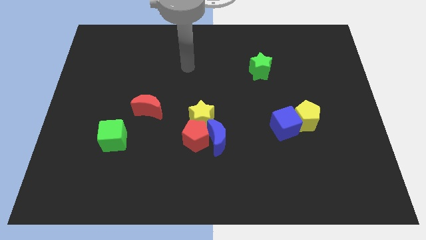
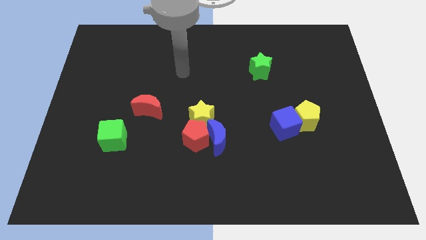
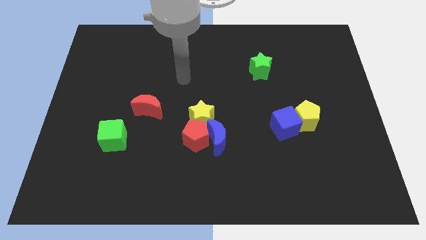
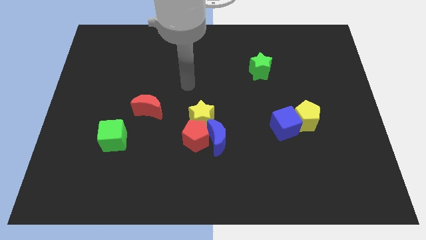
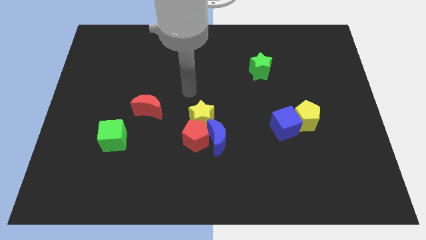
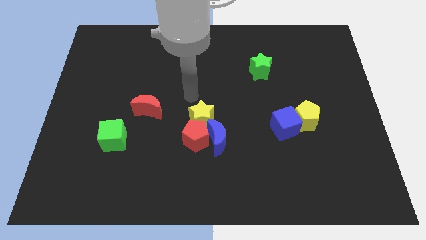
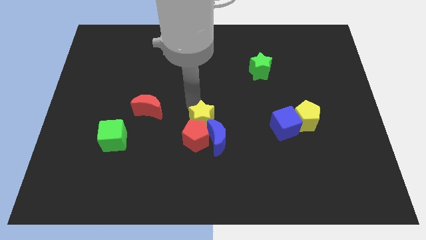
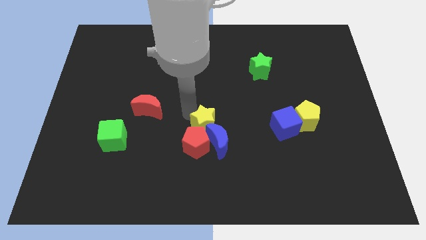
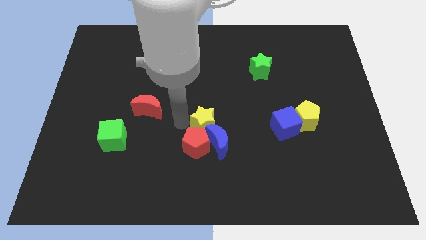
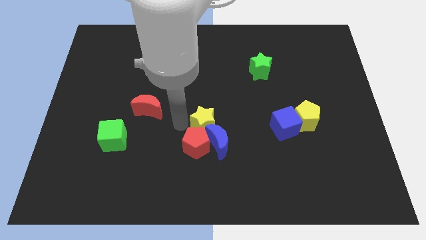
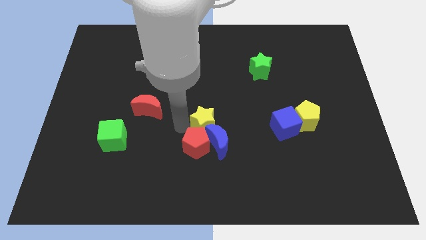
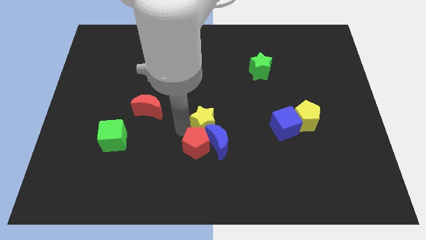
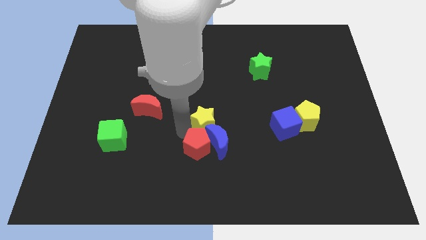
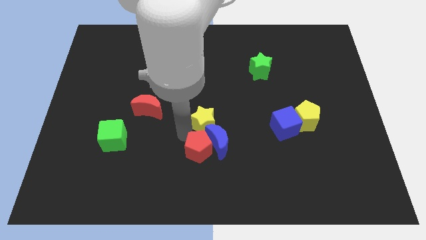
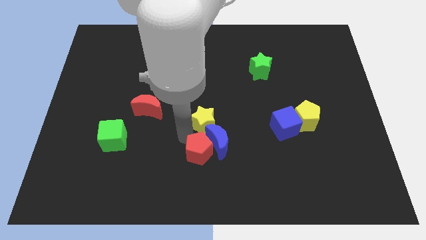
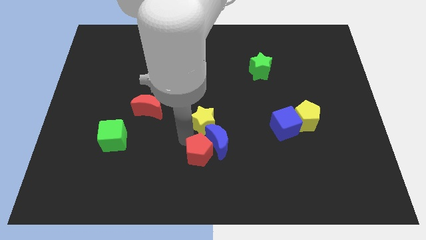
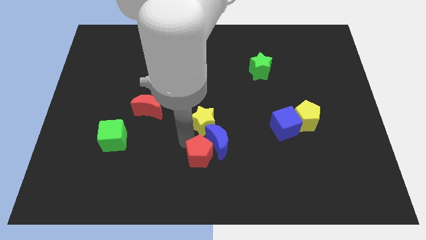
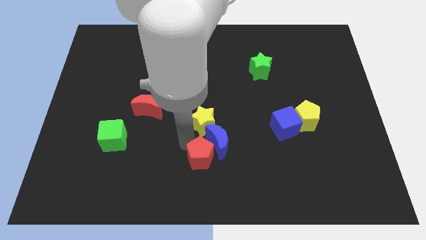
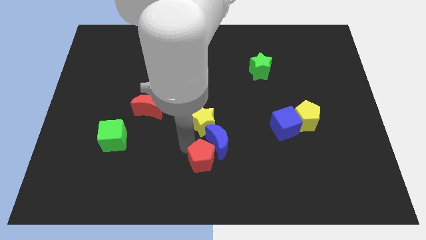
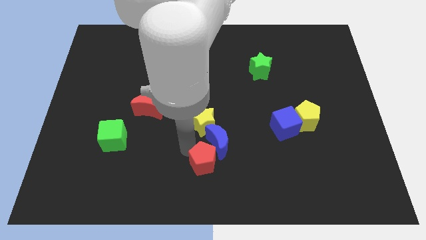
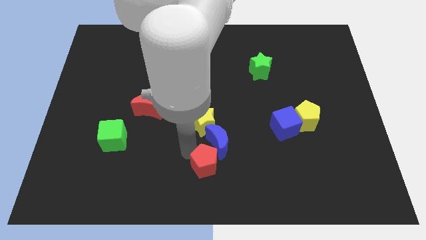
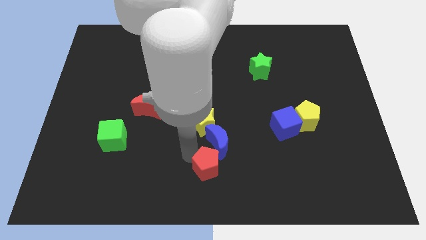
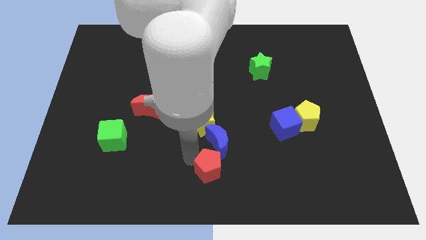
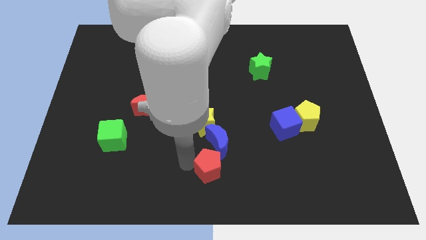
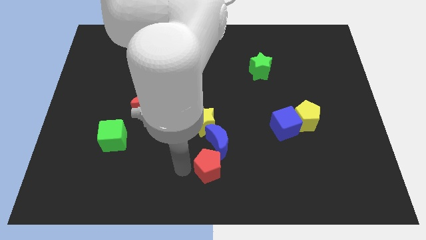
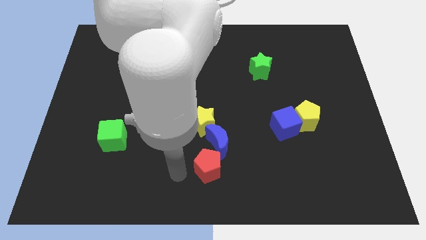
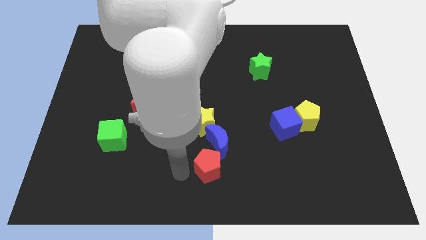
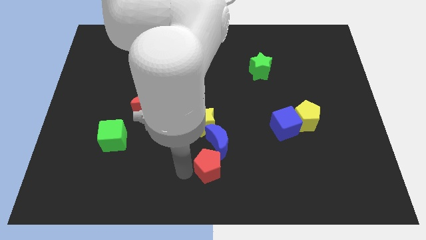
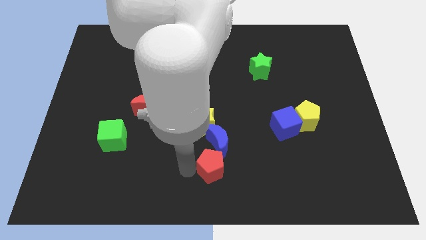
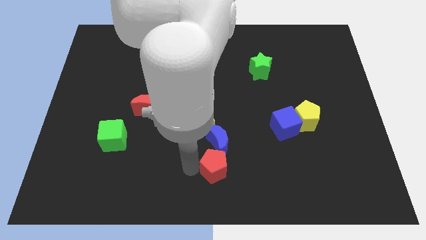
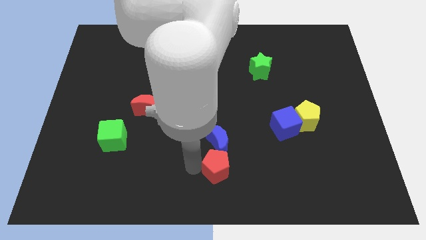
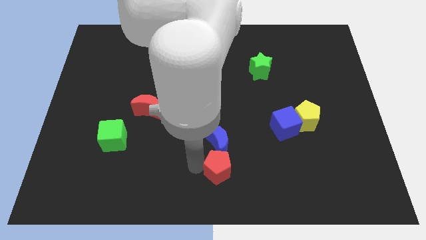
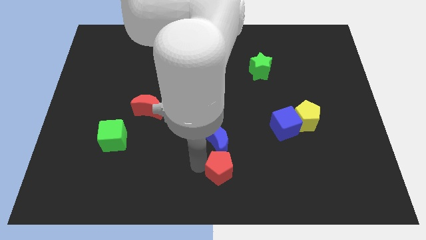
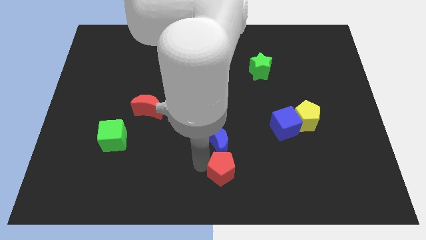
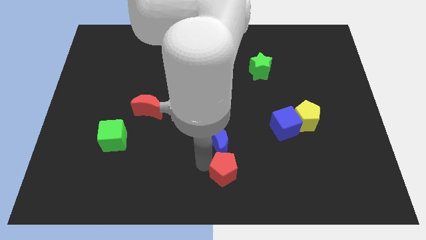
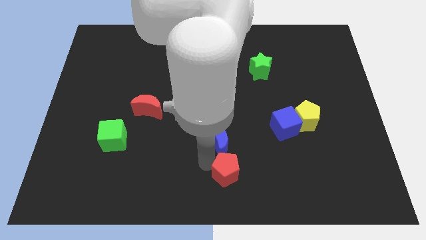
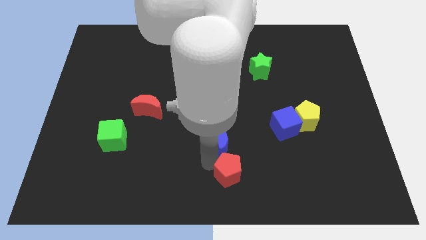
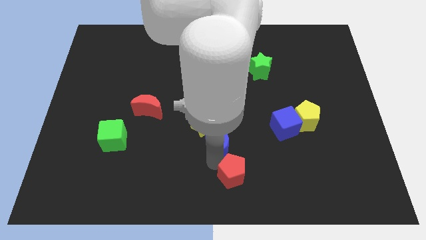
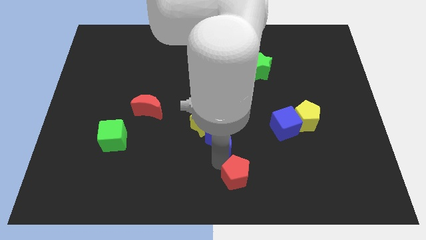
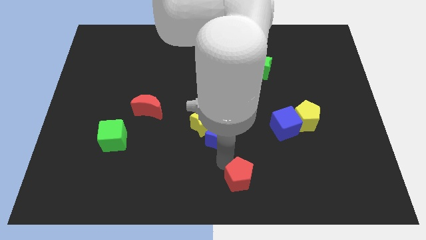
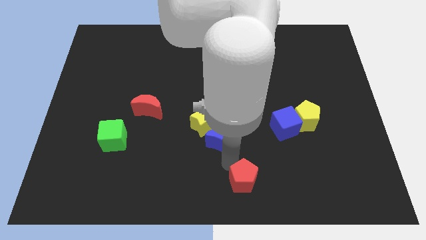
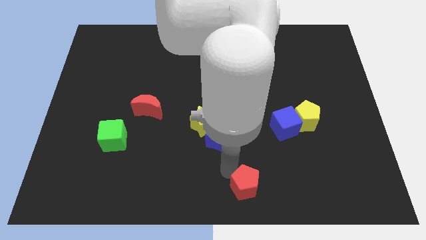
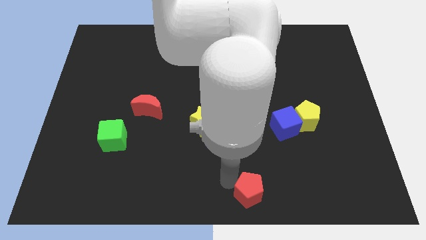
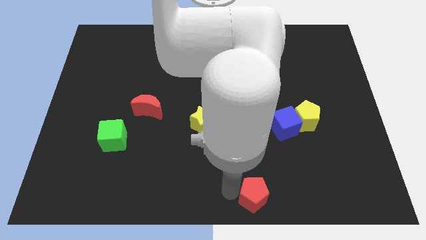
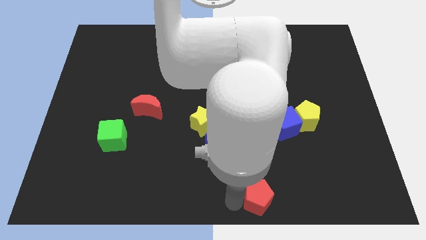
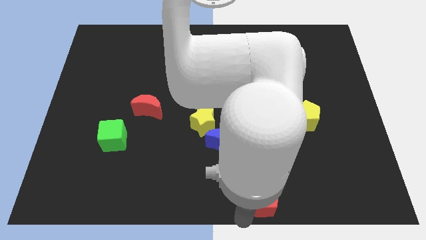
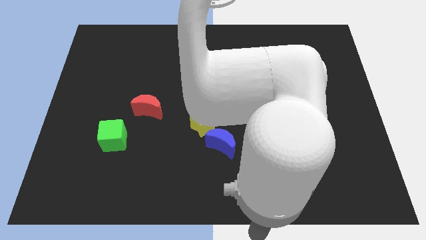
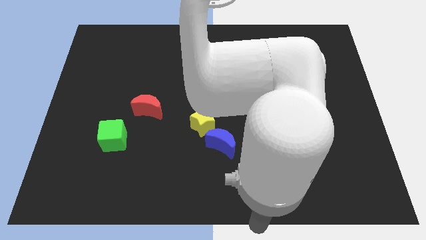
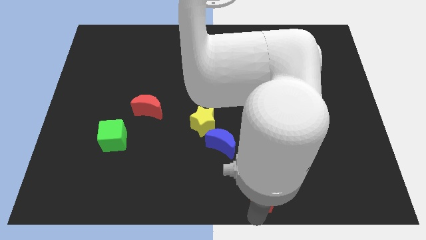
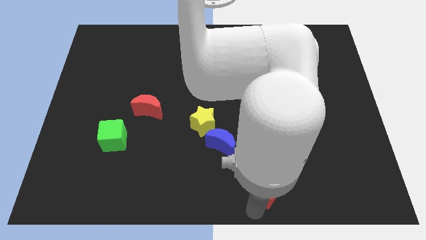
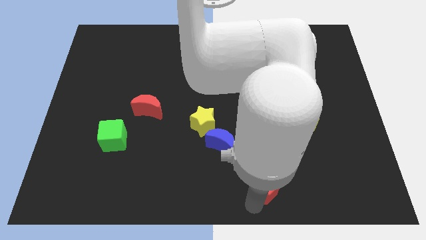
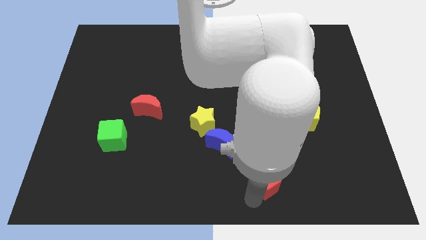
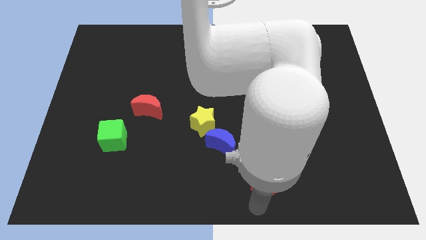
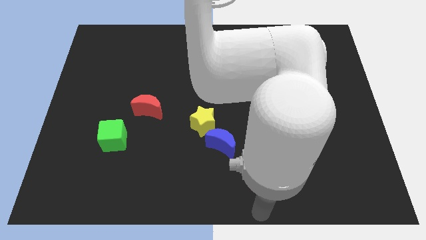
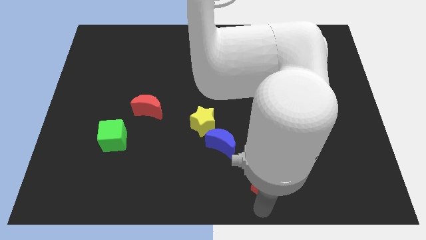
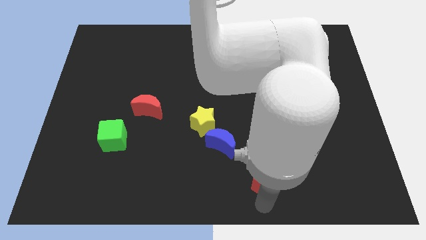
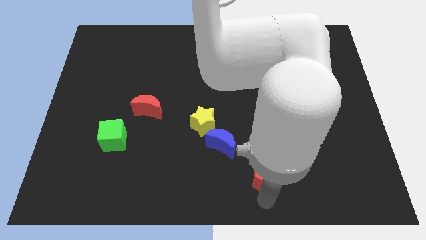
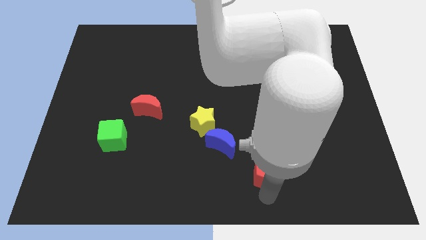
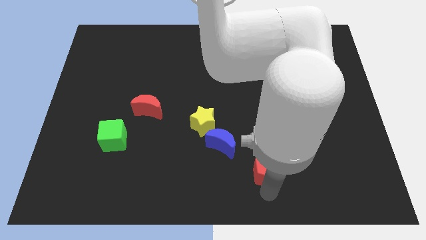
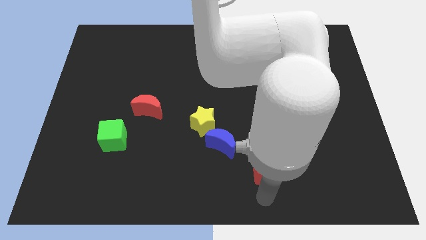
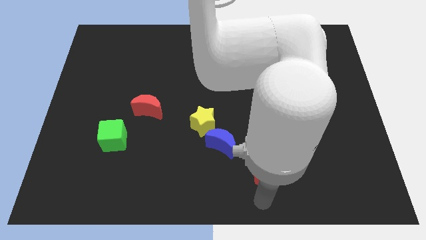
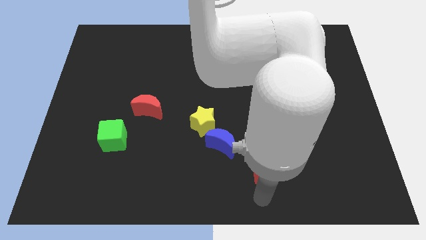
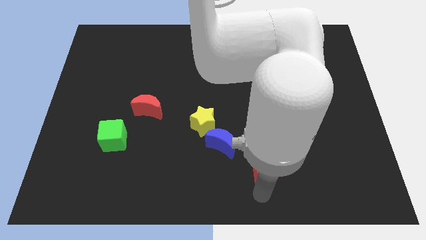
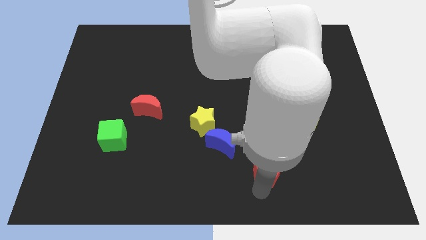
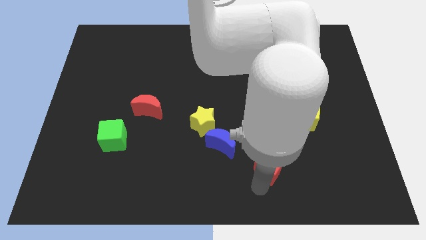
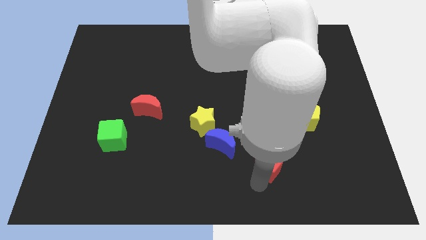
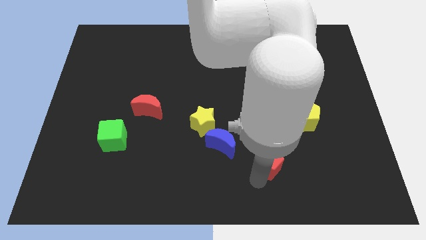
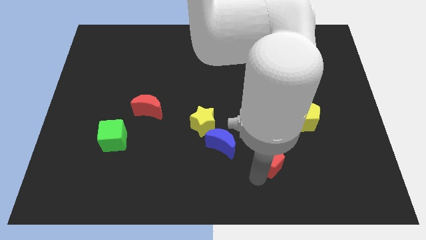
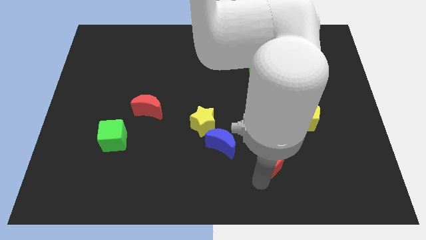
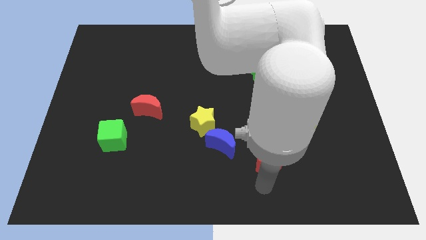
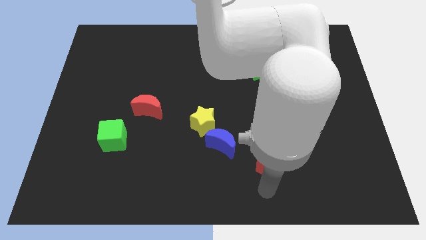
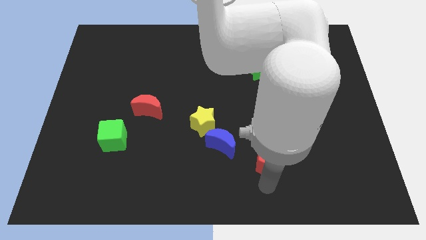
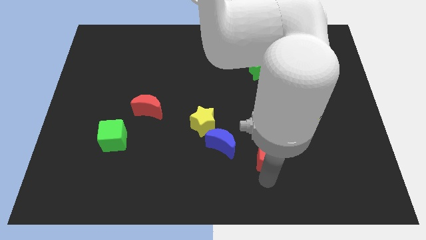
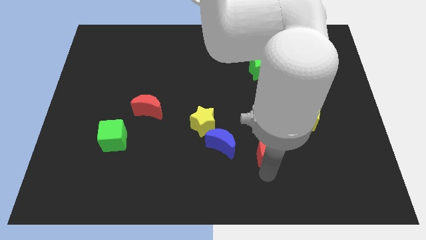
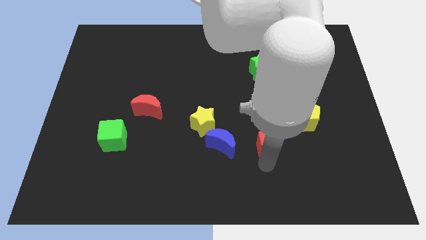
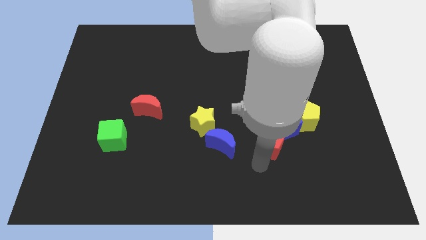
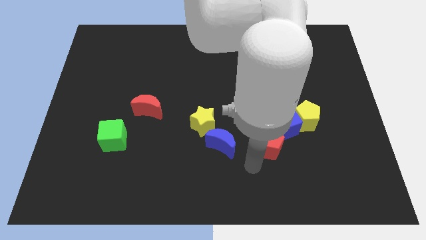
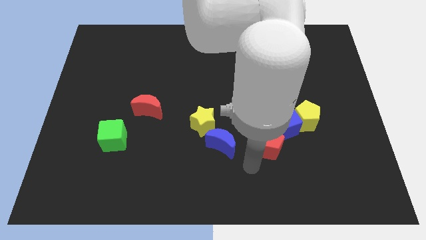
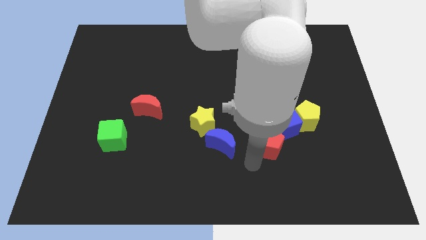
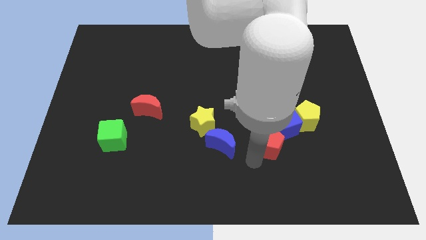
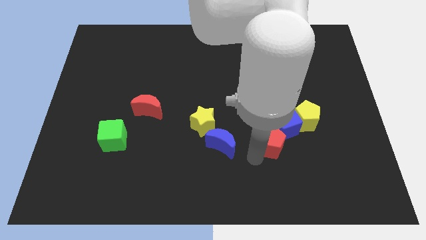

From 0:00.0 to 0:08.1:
slide the red pentagon next to the blue cube
